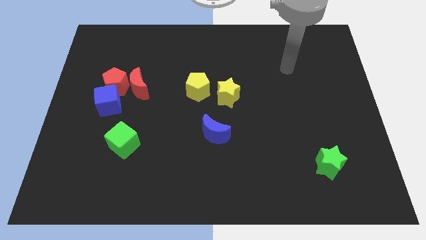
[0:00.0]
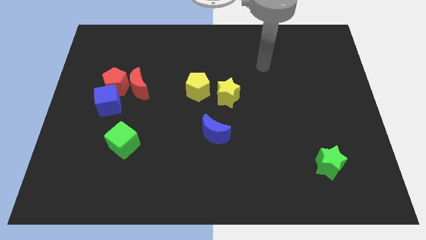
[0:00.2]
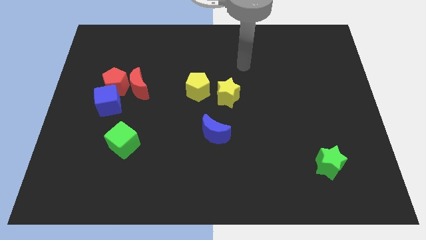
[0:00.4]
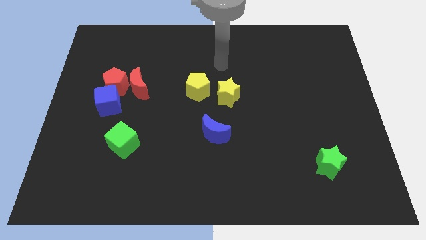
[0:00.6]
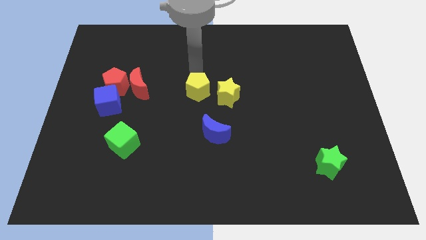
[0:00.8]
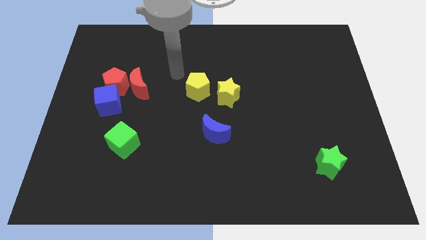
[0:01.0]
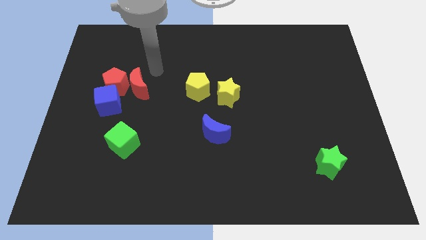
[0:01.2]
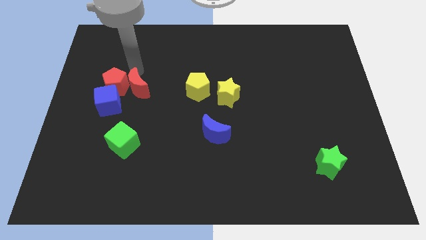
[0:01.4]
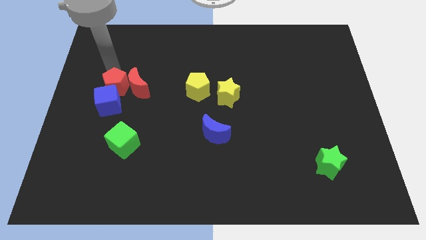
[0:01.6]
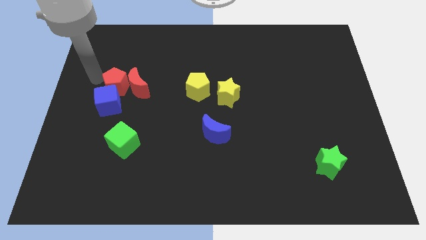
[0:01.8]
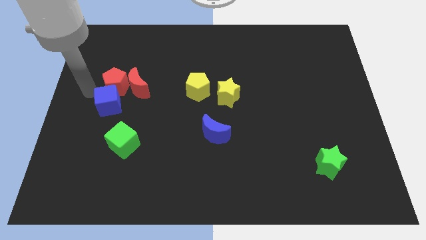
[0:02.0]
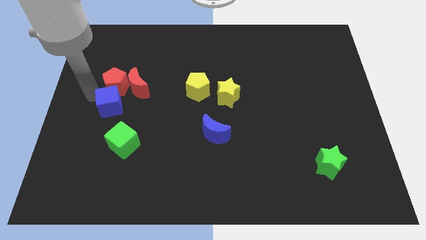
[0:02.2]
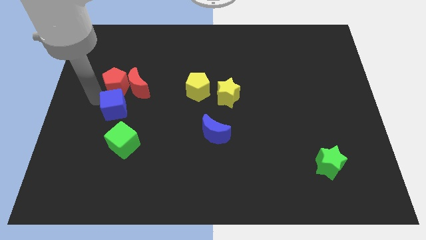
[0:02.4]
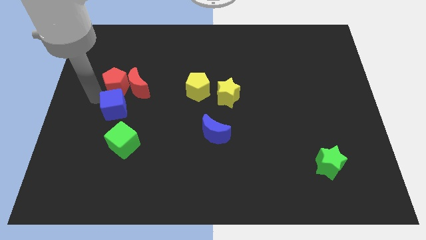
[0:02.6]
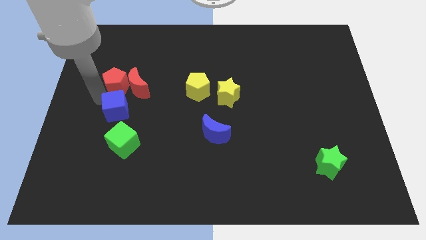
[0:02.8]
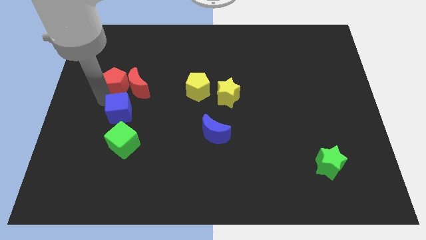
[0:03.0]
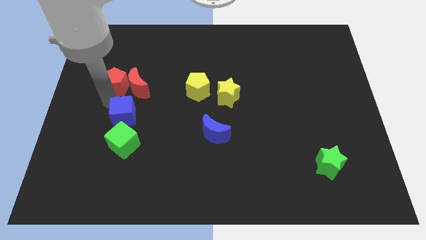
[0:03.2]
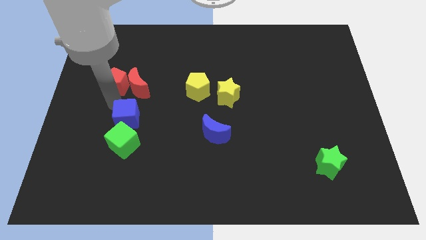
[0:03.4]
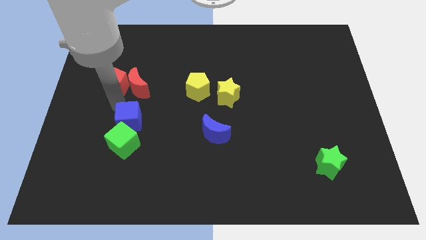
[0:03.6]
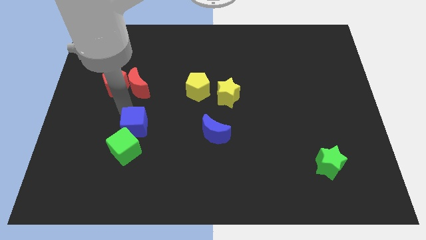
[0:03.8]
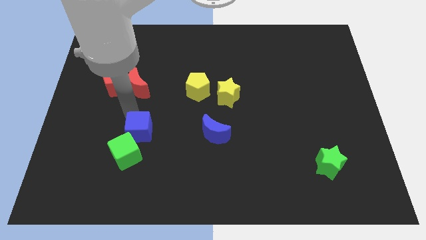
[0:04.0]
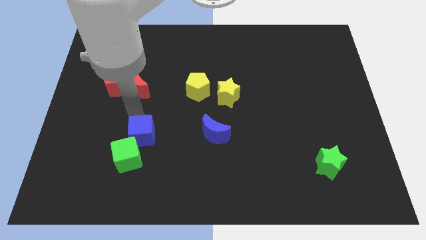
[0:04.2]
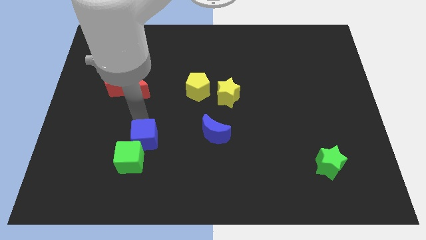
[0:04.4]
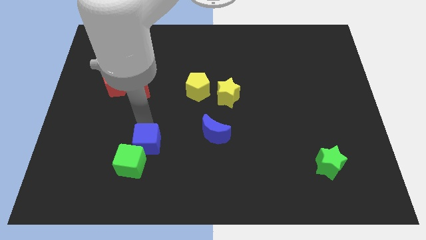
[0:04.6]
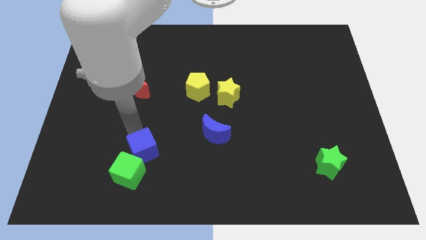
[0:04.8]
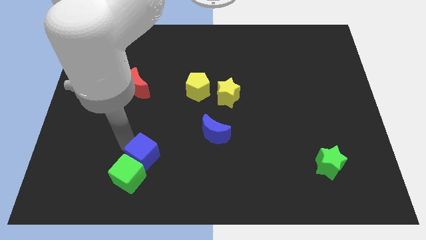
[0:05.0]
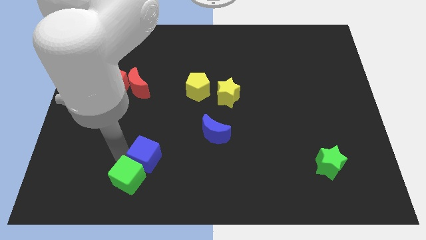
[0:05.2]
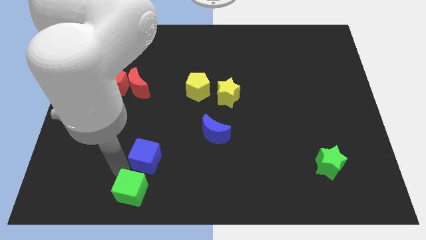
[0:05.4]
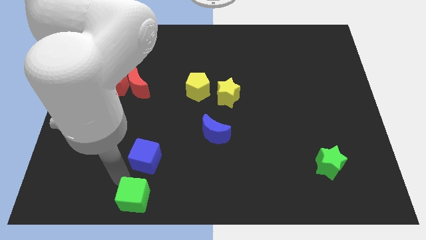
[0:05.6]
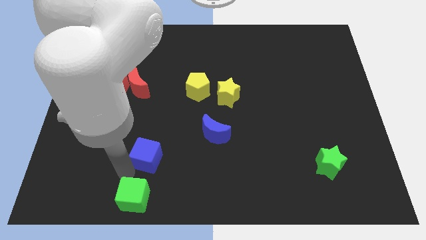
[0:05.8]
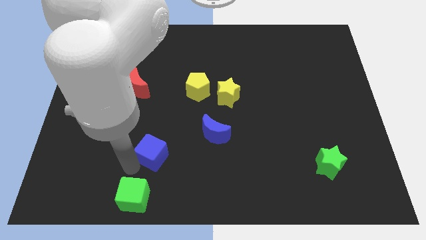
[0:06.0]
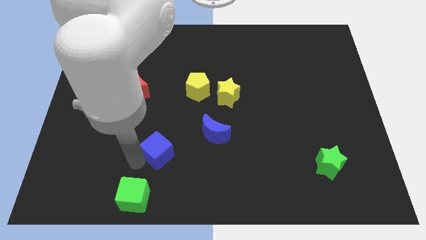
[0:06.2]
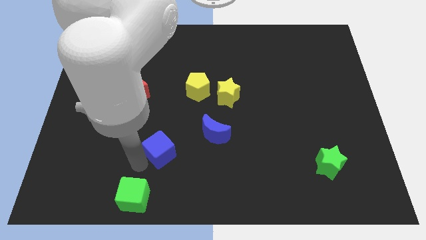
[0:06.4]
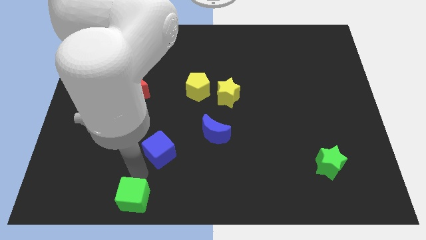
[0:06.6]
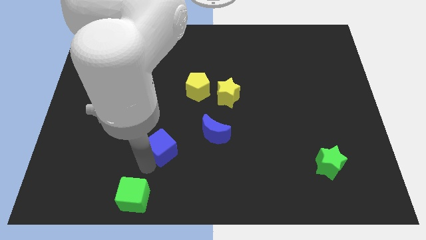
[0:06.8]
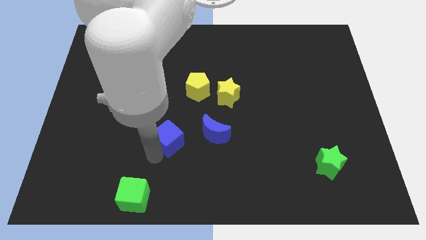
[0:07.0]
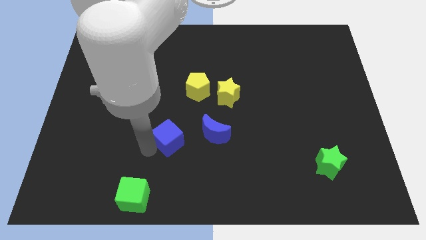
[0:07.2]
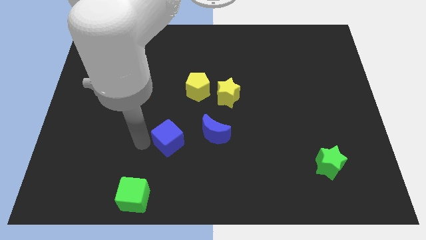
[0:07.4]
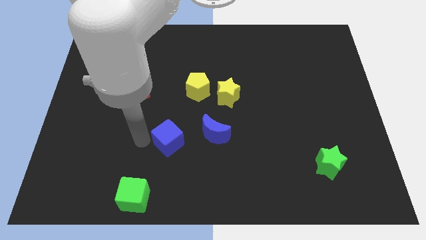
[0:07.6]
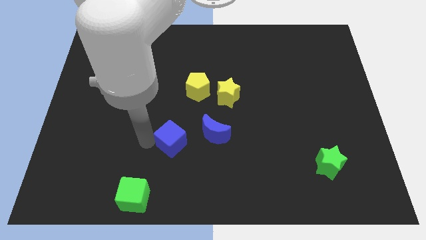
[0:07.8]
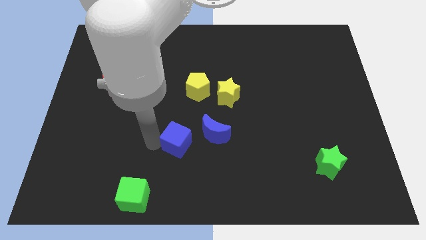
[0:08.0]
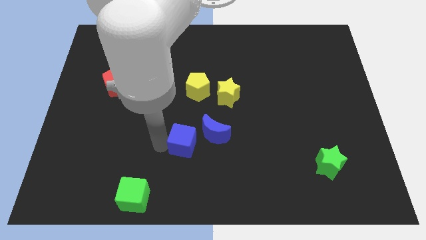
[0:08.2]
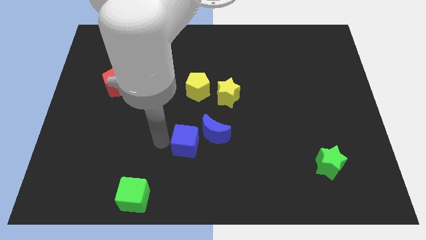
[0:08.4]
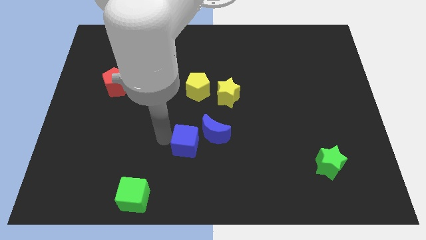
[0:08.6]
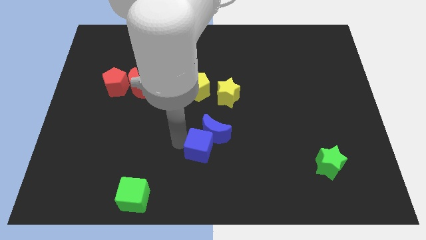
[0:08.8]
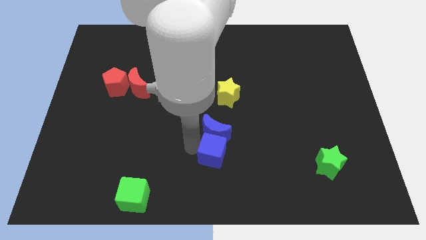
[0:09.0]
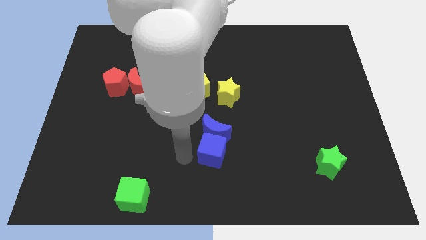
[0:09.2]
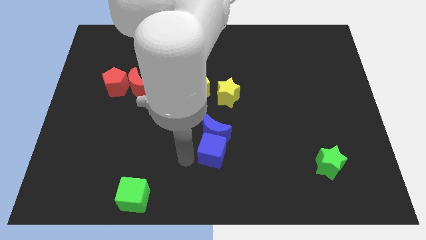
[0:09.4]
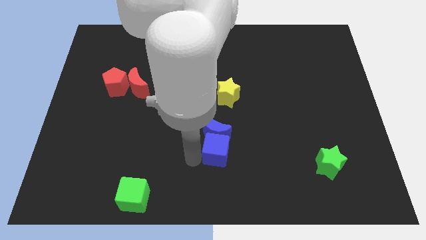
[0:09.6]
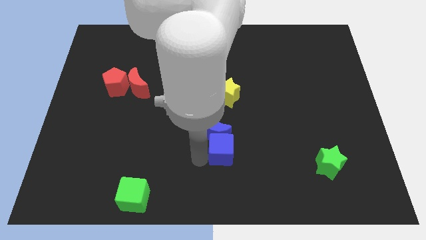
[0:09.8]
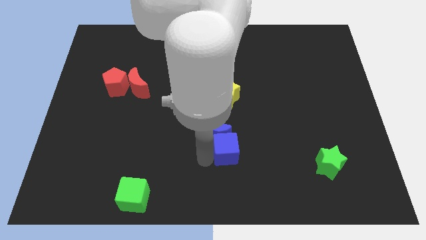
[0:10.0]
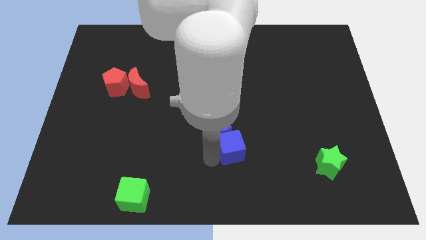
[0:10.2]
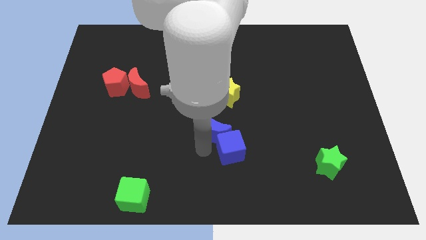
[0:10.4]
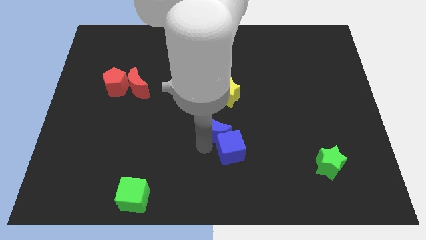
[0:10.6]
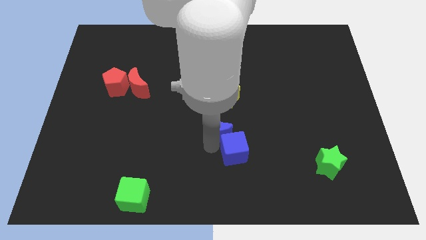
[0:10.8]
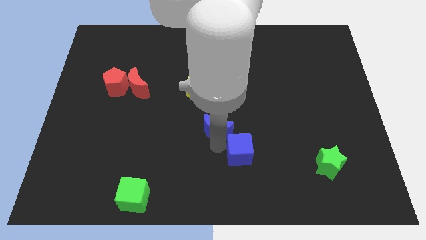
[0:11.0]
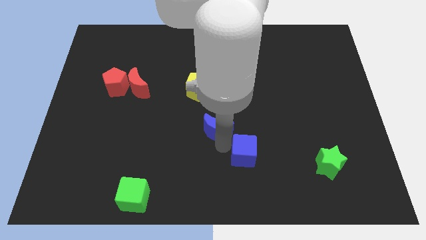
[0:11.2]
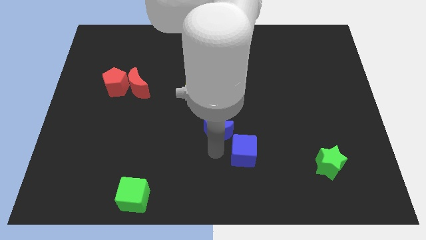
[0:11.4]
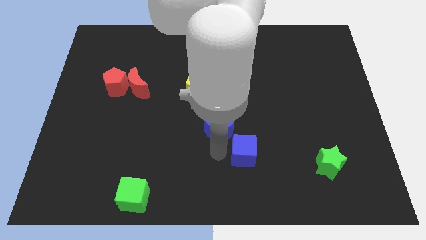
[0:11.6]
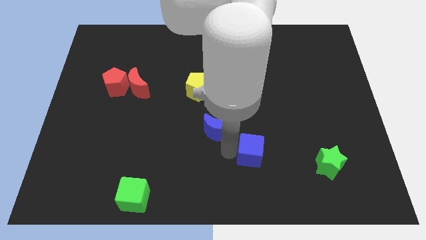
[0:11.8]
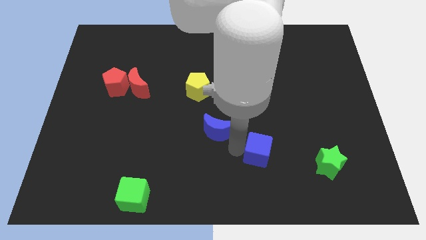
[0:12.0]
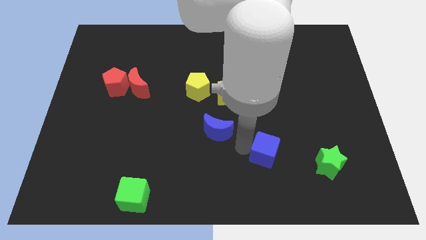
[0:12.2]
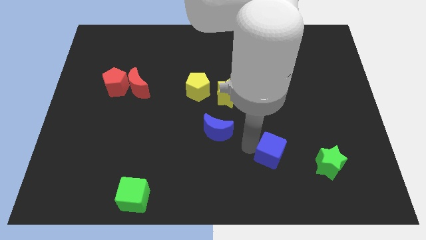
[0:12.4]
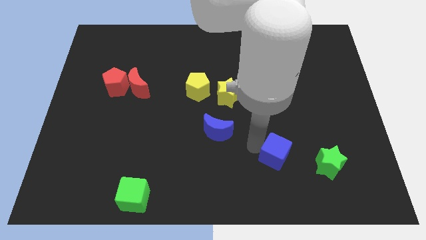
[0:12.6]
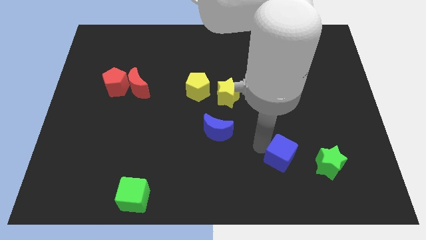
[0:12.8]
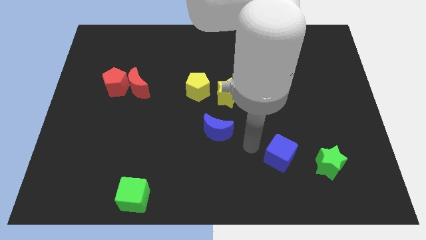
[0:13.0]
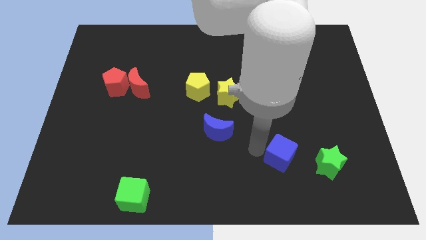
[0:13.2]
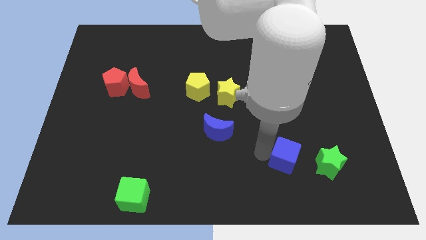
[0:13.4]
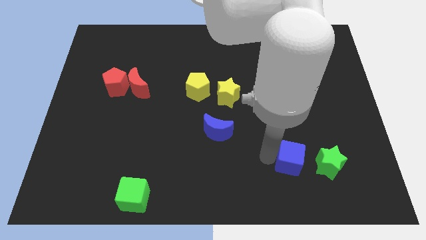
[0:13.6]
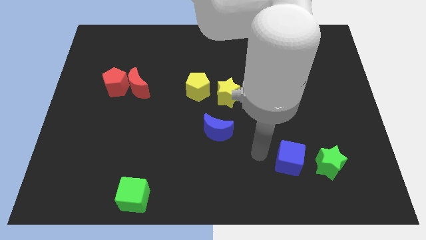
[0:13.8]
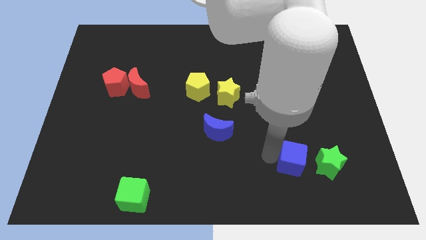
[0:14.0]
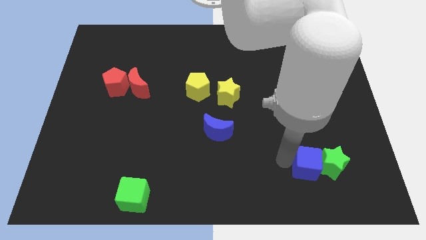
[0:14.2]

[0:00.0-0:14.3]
slide the blue cube next to the green star
